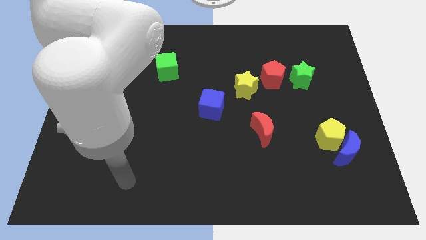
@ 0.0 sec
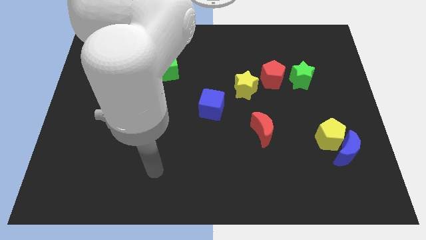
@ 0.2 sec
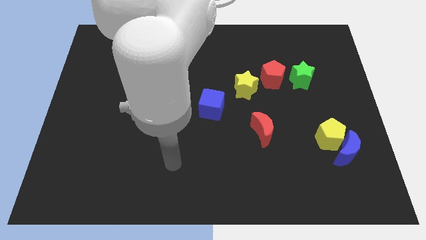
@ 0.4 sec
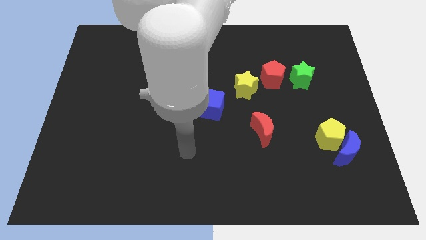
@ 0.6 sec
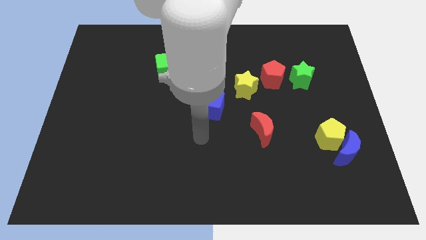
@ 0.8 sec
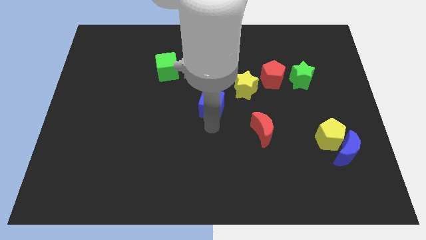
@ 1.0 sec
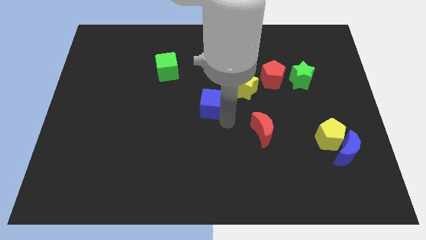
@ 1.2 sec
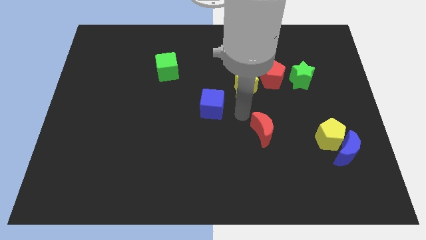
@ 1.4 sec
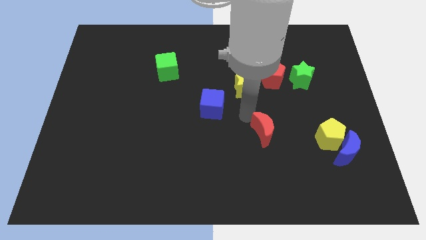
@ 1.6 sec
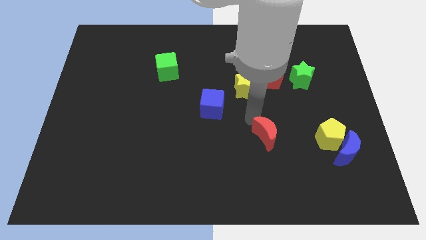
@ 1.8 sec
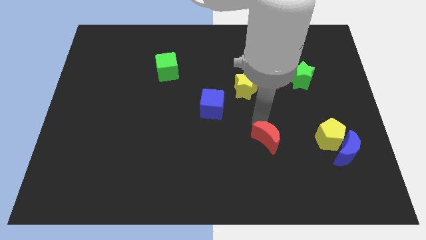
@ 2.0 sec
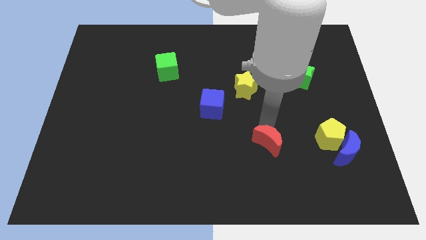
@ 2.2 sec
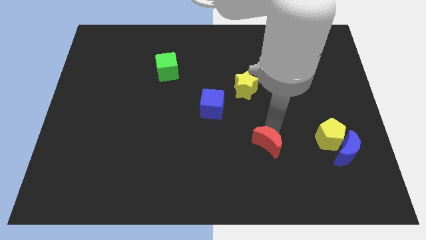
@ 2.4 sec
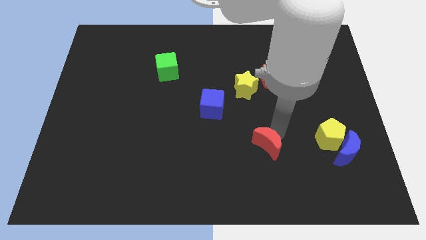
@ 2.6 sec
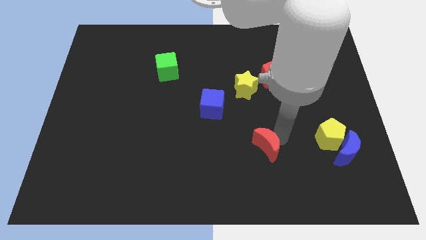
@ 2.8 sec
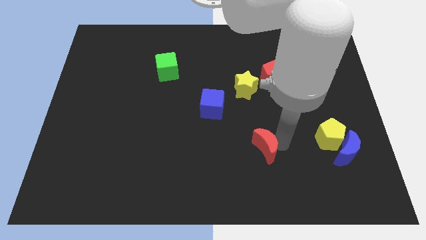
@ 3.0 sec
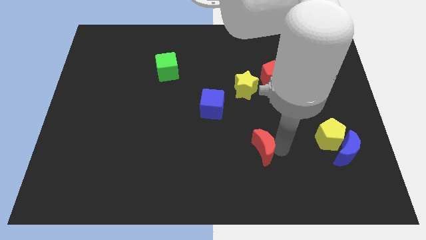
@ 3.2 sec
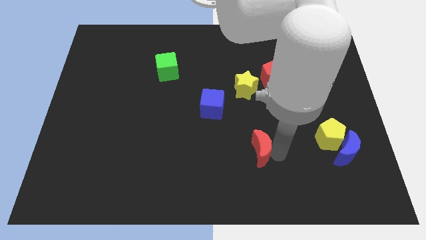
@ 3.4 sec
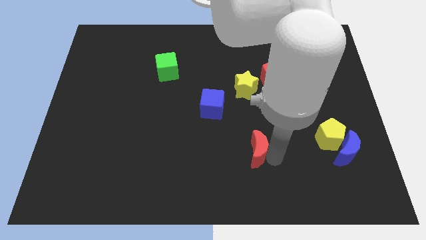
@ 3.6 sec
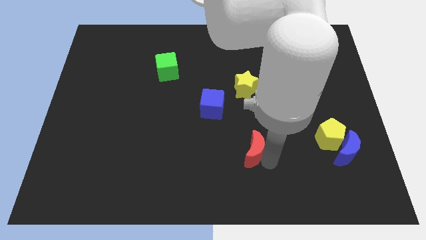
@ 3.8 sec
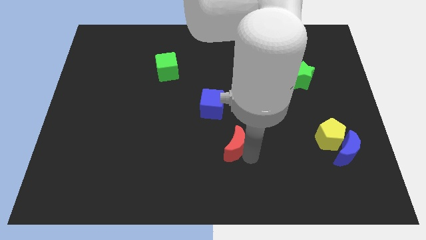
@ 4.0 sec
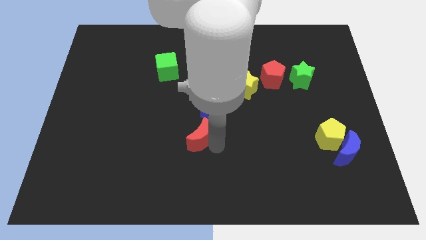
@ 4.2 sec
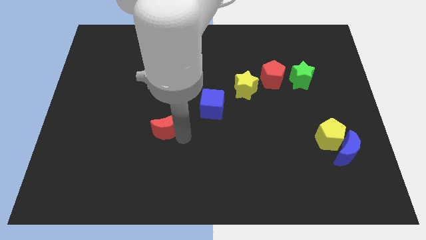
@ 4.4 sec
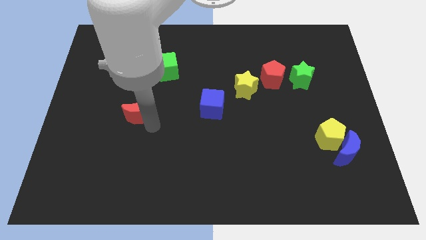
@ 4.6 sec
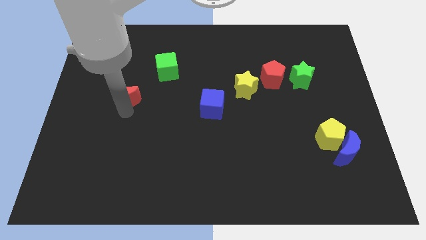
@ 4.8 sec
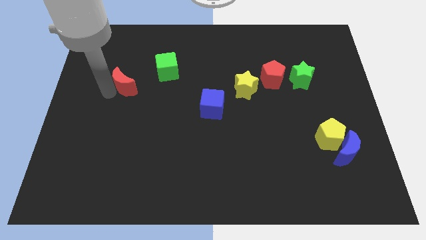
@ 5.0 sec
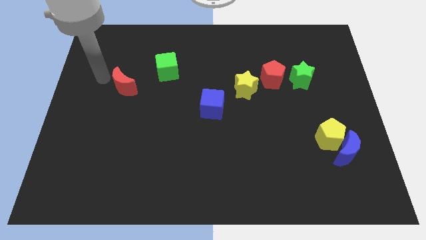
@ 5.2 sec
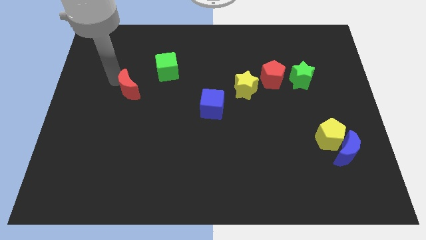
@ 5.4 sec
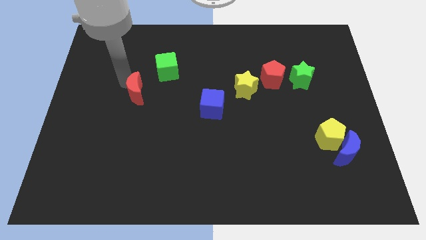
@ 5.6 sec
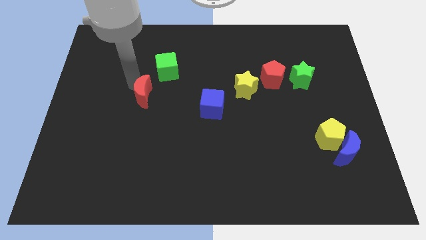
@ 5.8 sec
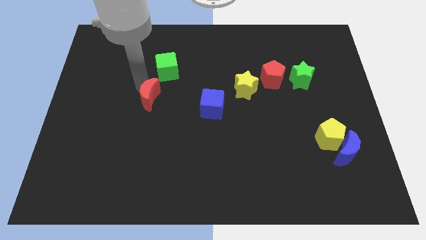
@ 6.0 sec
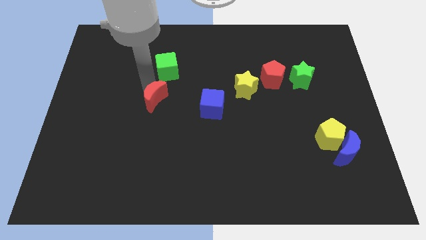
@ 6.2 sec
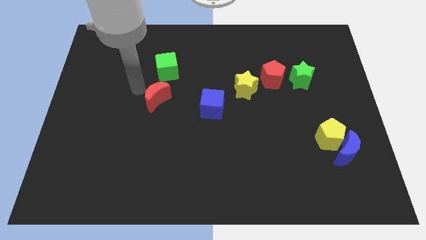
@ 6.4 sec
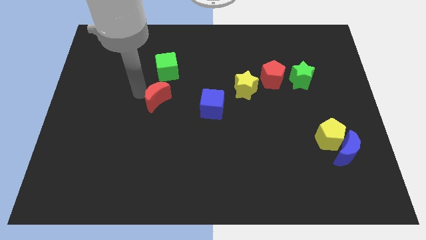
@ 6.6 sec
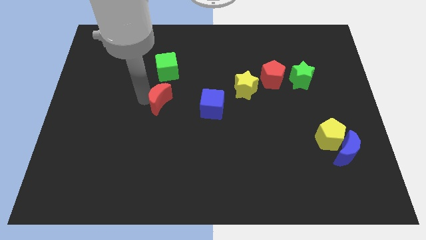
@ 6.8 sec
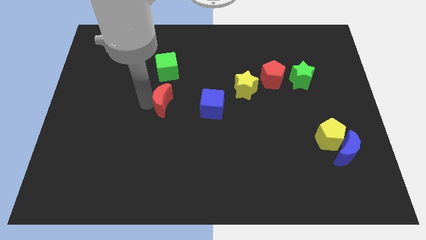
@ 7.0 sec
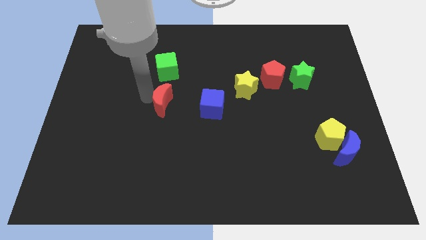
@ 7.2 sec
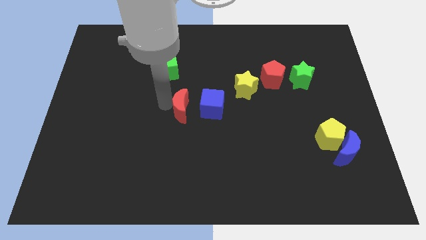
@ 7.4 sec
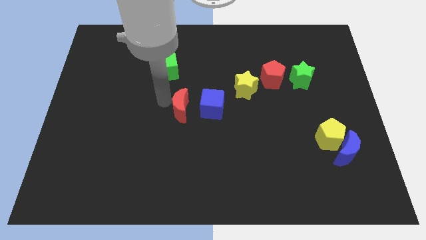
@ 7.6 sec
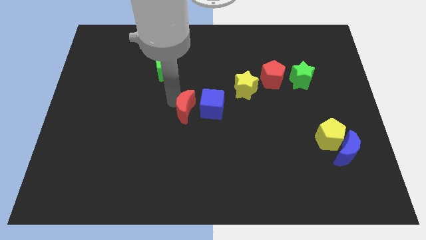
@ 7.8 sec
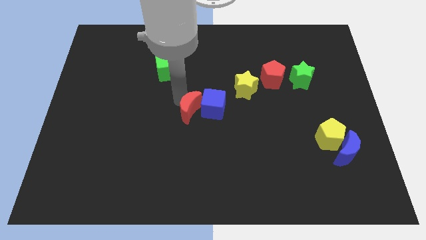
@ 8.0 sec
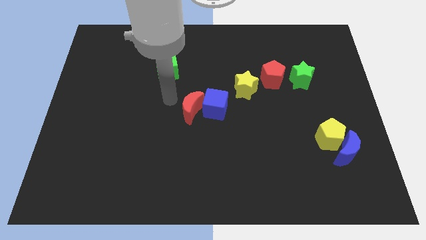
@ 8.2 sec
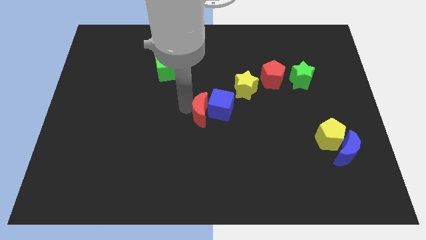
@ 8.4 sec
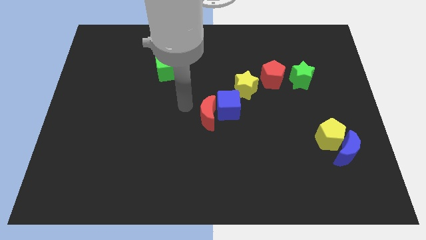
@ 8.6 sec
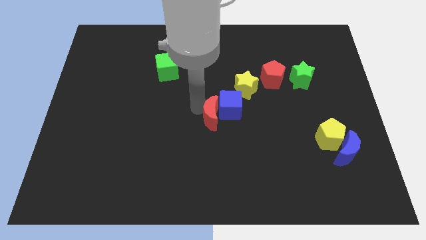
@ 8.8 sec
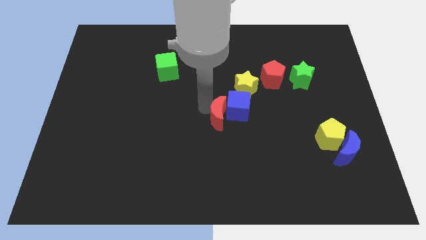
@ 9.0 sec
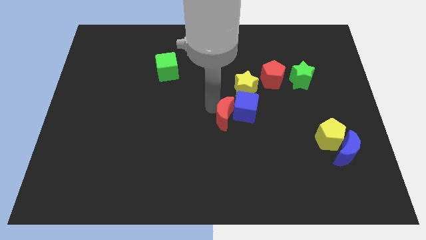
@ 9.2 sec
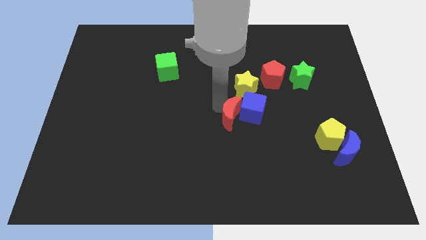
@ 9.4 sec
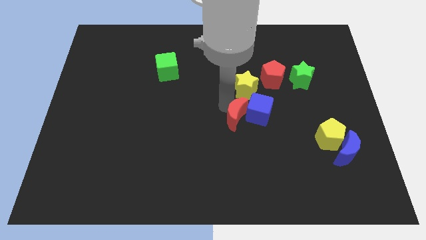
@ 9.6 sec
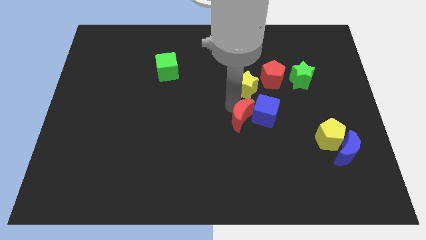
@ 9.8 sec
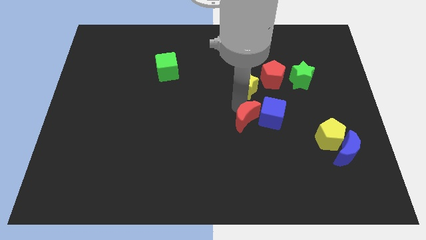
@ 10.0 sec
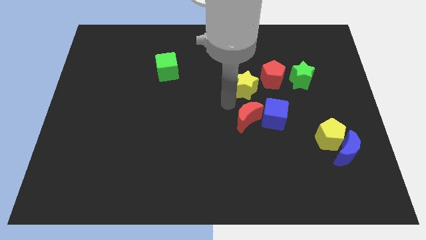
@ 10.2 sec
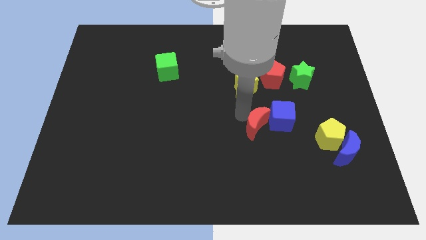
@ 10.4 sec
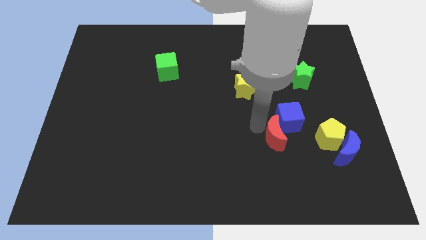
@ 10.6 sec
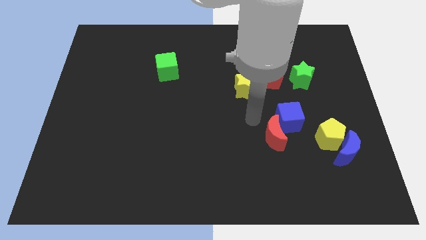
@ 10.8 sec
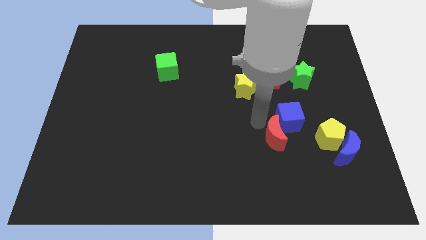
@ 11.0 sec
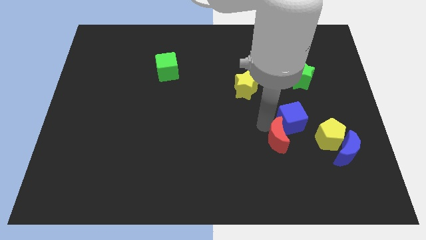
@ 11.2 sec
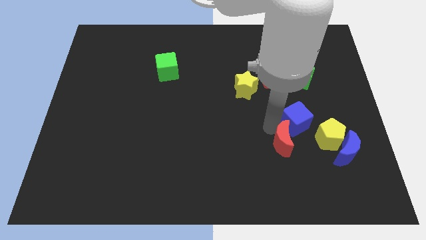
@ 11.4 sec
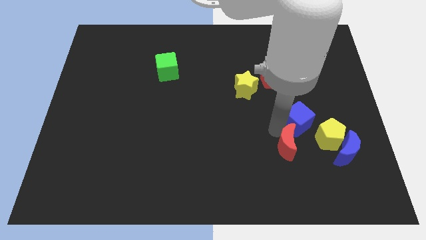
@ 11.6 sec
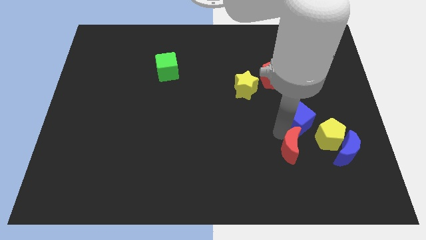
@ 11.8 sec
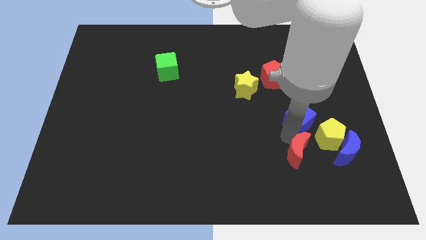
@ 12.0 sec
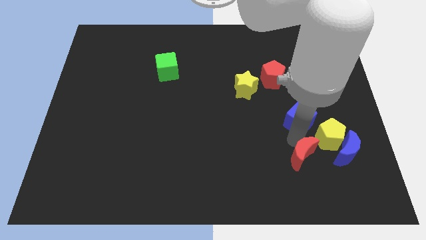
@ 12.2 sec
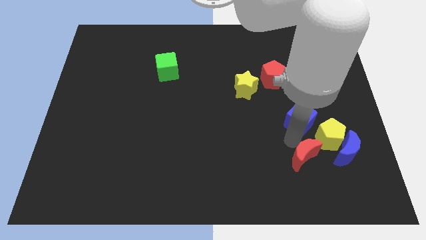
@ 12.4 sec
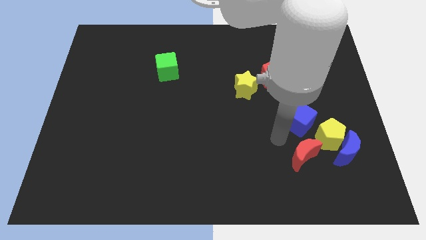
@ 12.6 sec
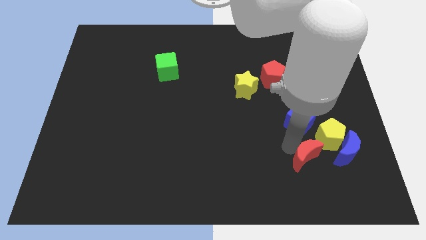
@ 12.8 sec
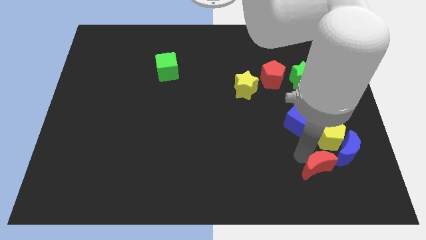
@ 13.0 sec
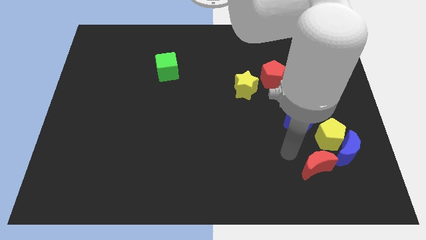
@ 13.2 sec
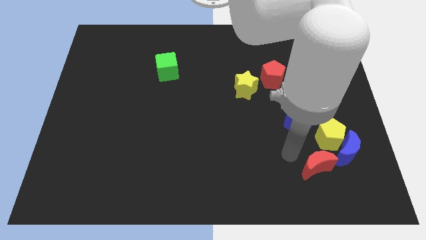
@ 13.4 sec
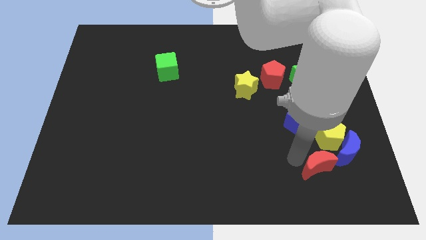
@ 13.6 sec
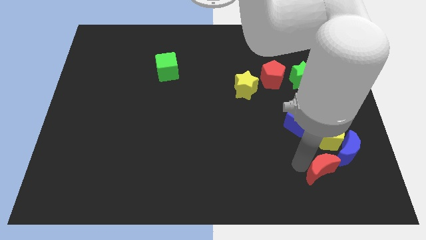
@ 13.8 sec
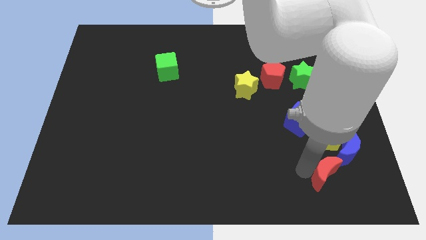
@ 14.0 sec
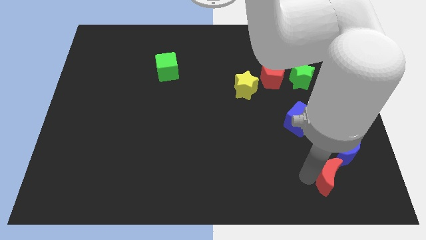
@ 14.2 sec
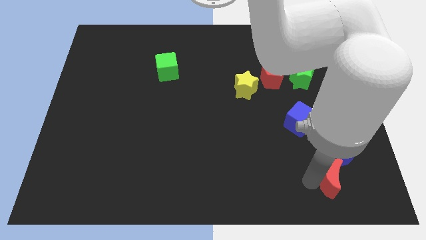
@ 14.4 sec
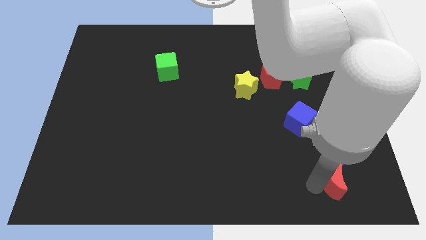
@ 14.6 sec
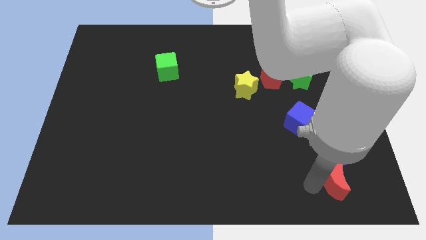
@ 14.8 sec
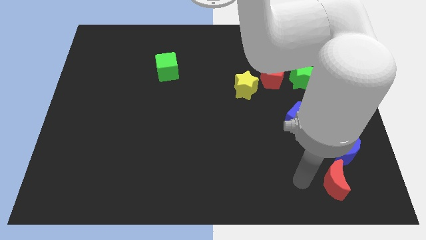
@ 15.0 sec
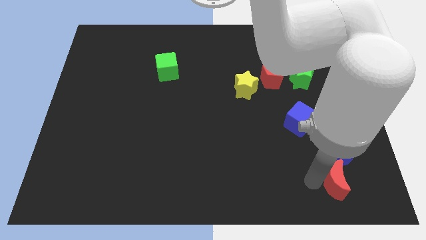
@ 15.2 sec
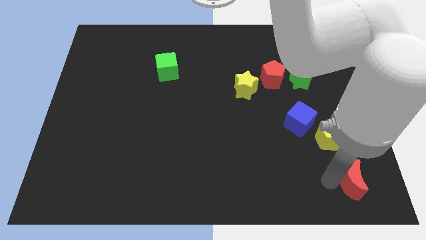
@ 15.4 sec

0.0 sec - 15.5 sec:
put the red moon to the bottom right corner
